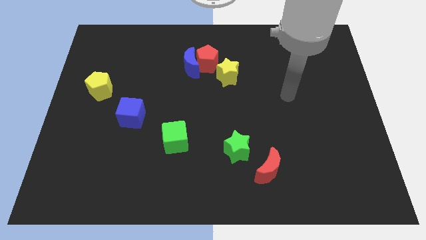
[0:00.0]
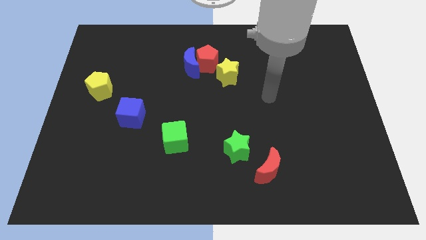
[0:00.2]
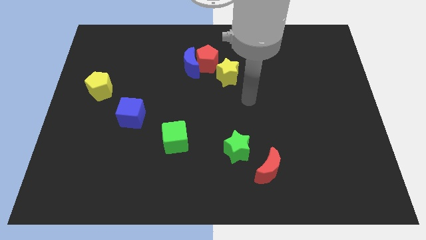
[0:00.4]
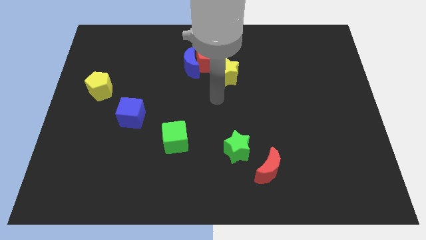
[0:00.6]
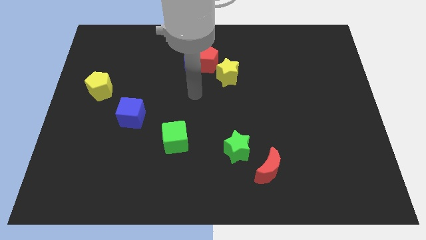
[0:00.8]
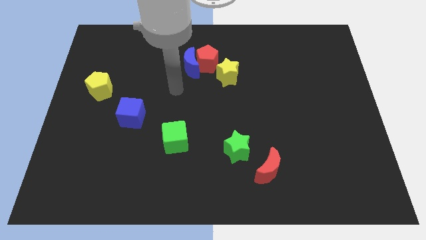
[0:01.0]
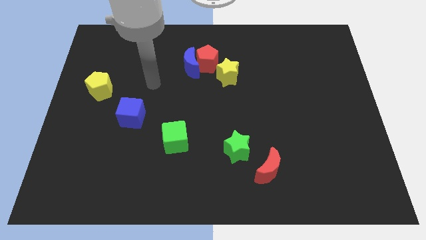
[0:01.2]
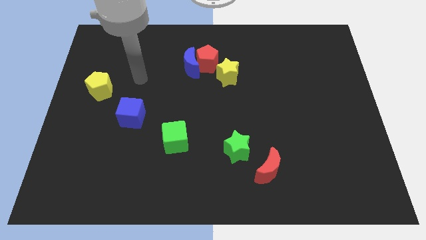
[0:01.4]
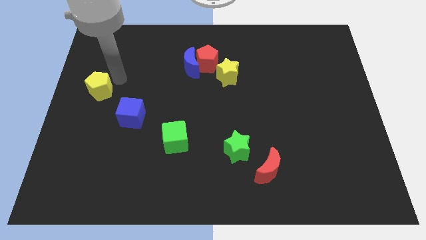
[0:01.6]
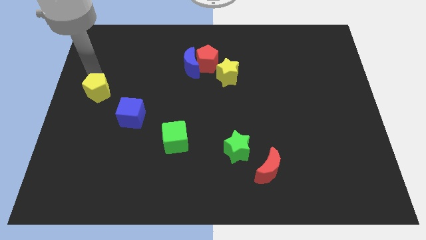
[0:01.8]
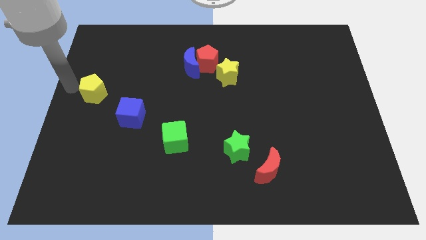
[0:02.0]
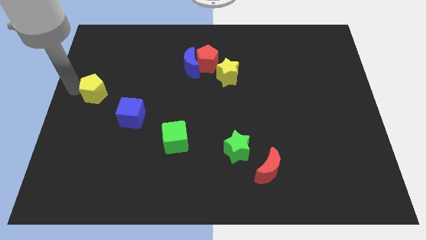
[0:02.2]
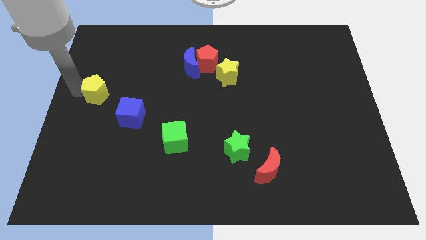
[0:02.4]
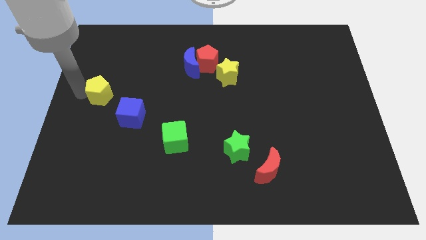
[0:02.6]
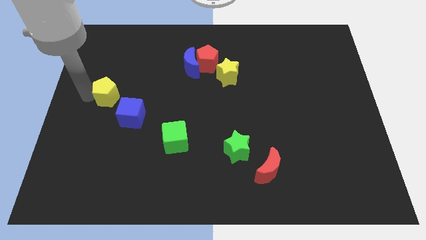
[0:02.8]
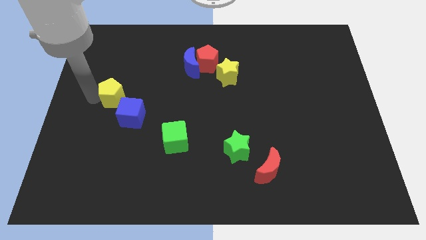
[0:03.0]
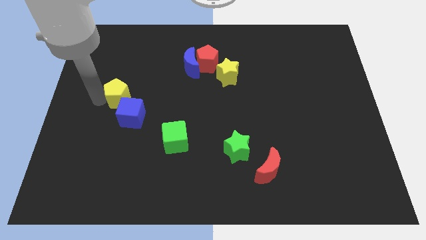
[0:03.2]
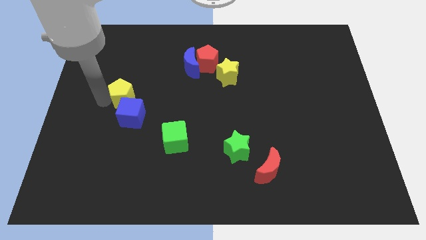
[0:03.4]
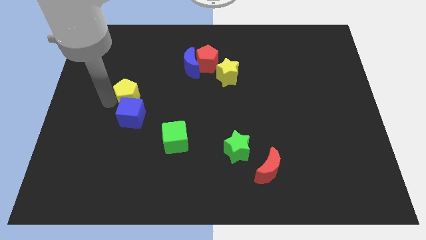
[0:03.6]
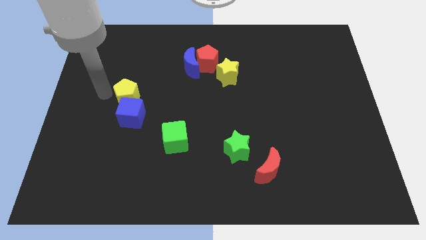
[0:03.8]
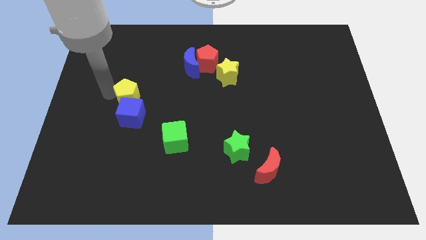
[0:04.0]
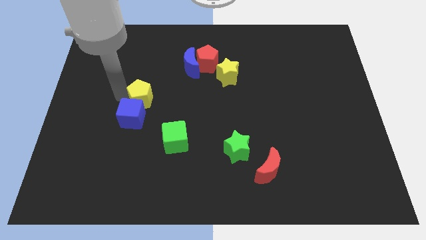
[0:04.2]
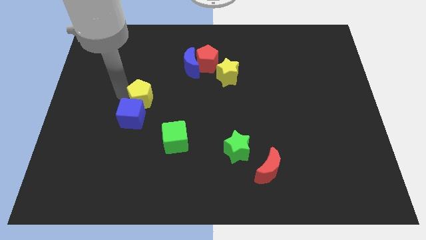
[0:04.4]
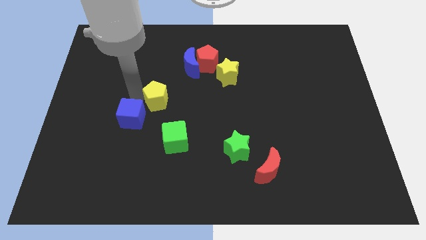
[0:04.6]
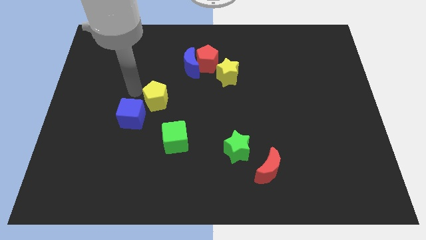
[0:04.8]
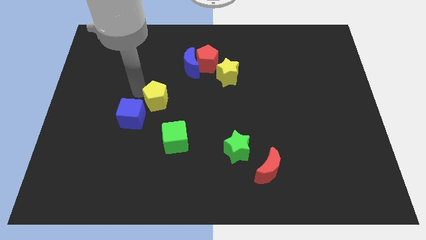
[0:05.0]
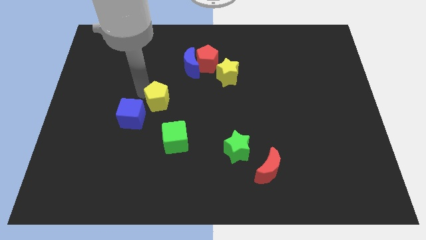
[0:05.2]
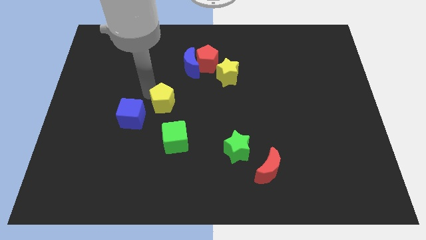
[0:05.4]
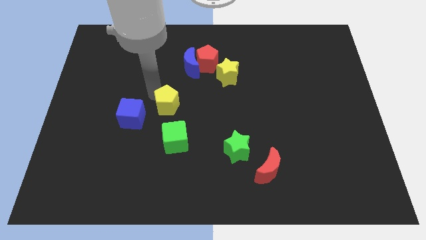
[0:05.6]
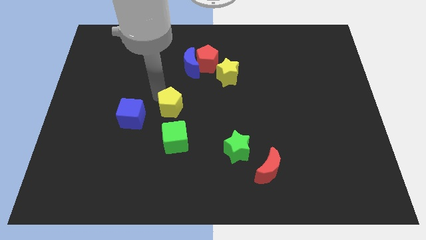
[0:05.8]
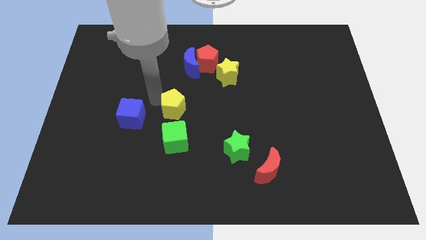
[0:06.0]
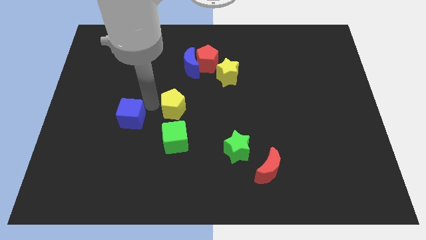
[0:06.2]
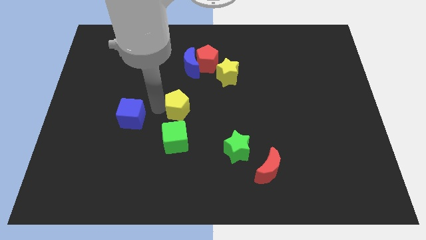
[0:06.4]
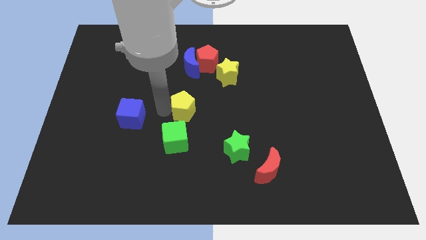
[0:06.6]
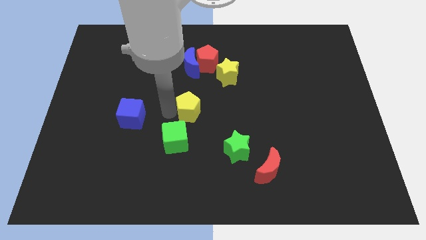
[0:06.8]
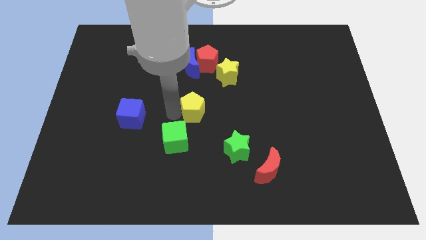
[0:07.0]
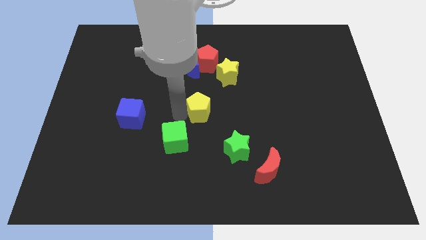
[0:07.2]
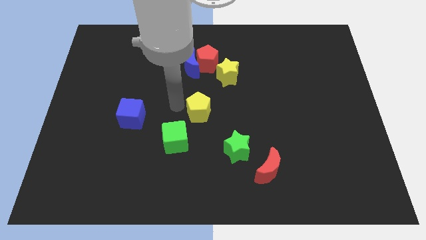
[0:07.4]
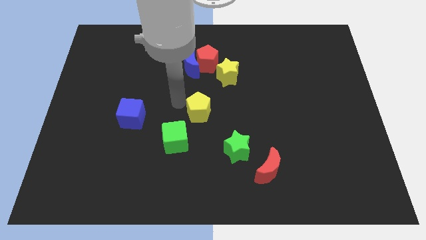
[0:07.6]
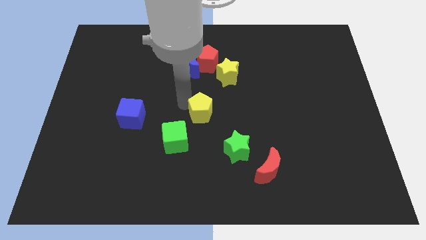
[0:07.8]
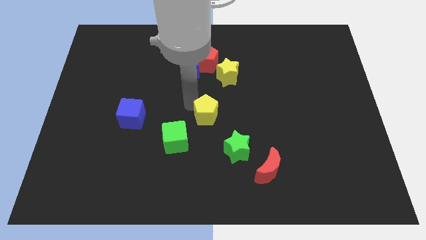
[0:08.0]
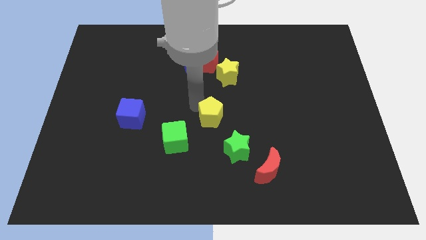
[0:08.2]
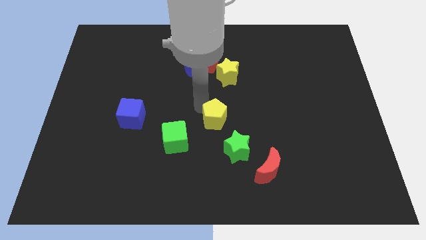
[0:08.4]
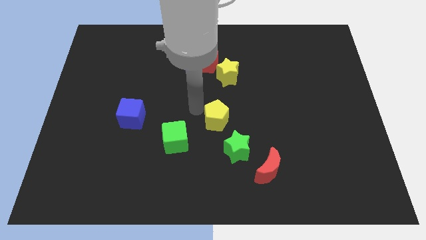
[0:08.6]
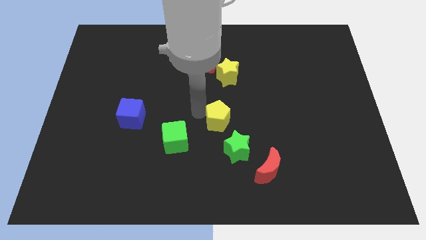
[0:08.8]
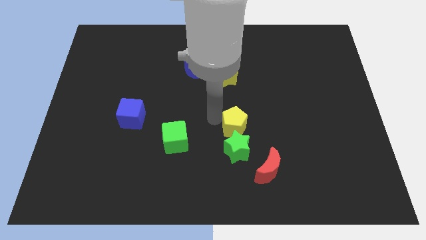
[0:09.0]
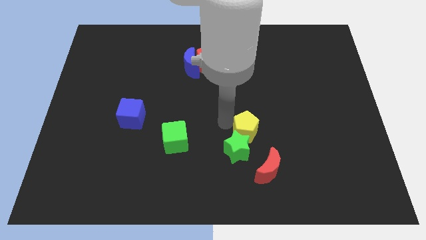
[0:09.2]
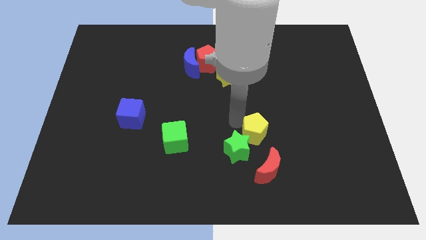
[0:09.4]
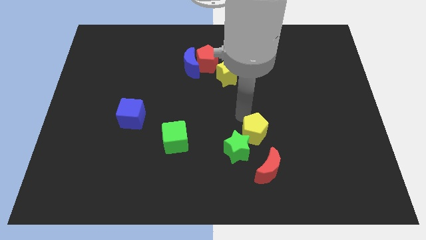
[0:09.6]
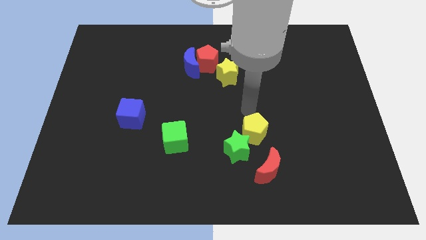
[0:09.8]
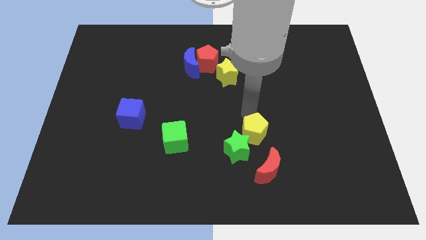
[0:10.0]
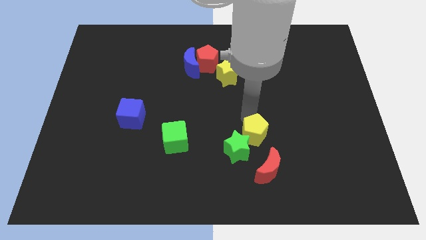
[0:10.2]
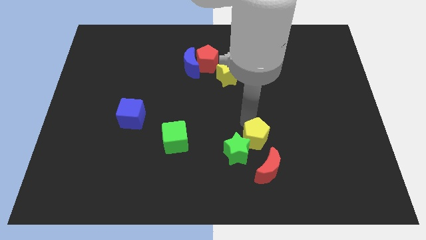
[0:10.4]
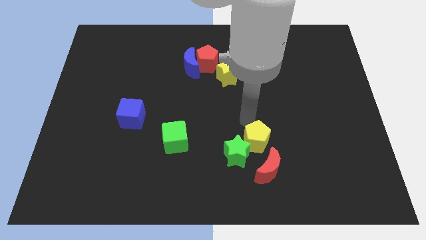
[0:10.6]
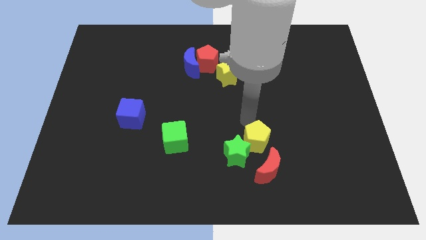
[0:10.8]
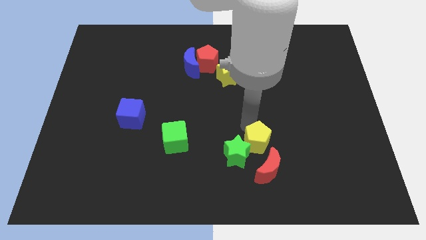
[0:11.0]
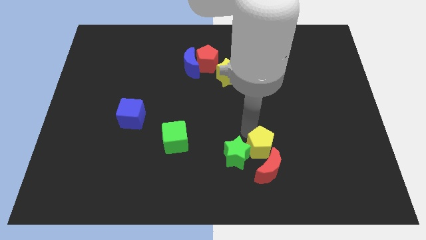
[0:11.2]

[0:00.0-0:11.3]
put the yellow pentagon to the red moon

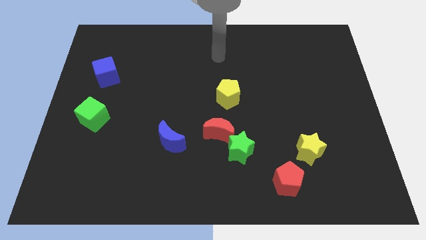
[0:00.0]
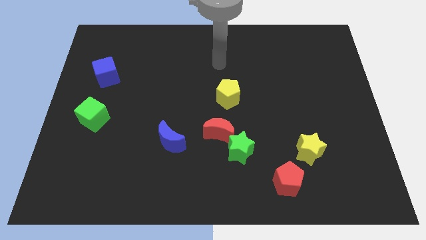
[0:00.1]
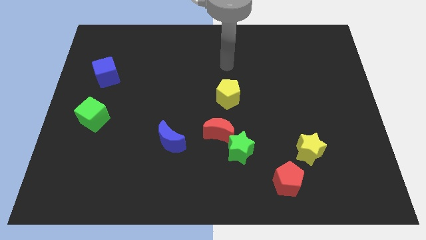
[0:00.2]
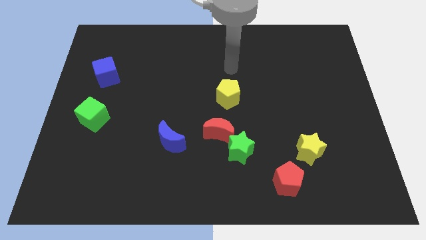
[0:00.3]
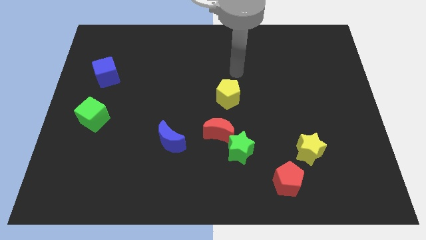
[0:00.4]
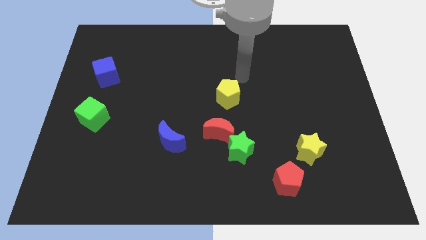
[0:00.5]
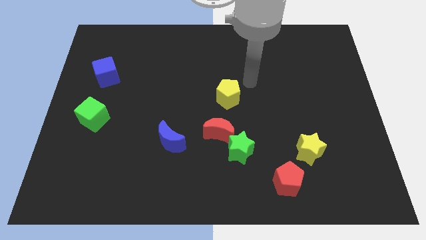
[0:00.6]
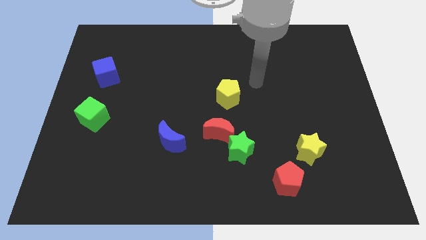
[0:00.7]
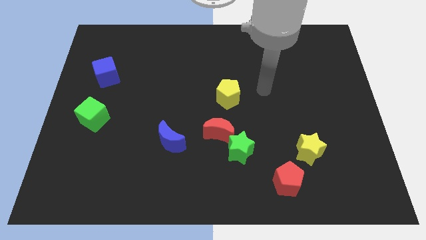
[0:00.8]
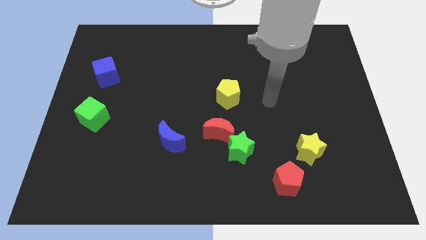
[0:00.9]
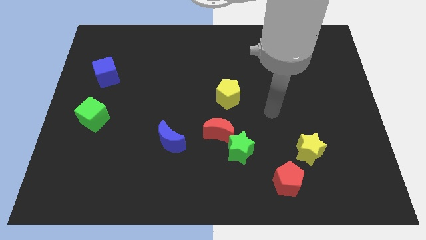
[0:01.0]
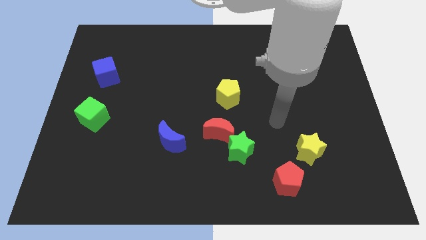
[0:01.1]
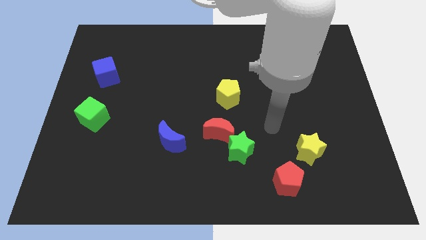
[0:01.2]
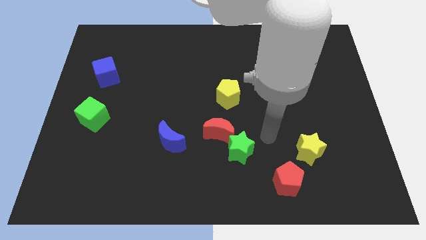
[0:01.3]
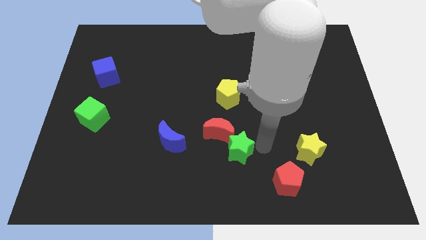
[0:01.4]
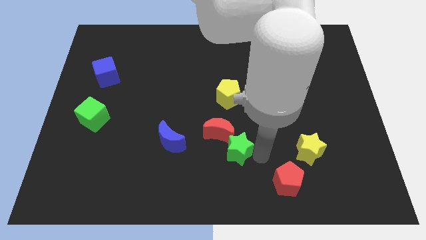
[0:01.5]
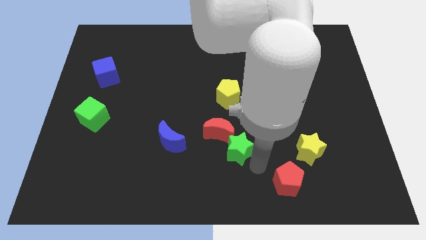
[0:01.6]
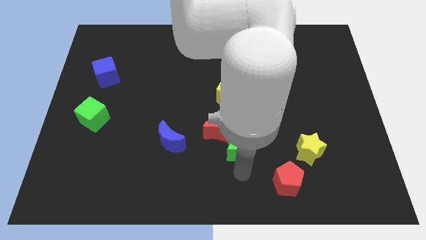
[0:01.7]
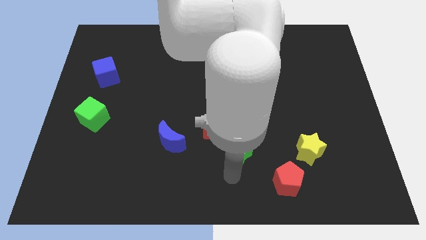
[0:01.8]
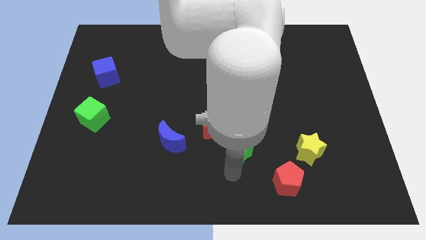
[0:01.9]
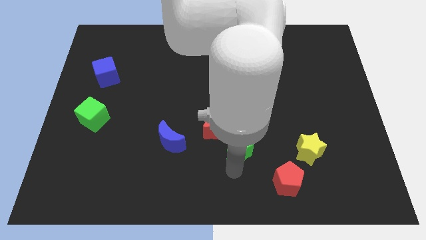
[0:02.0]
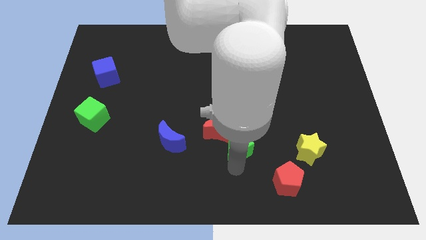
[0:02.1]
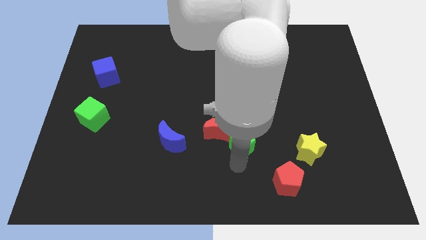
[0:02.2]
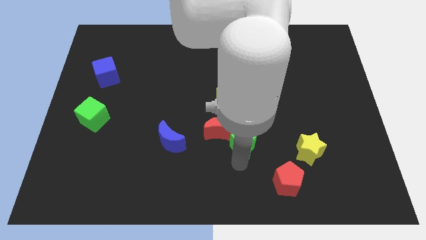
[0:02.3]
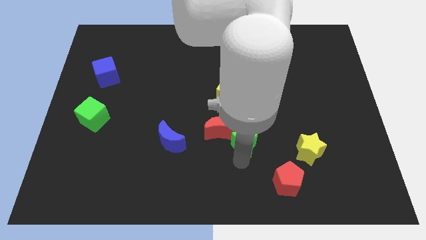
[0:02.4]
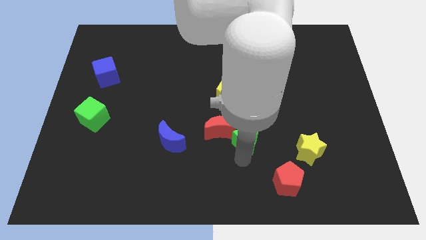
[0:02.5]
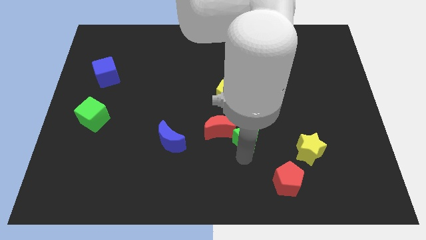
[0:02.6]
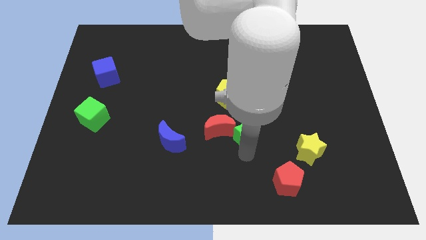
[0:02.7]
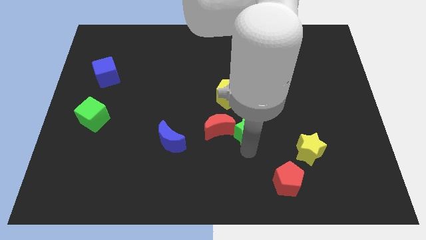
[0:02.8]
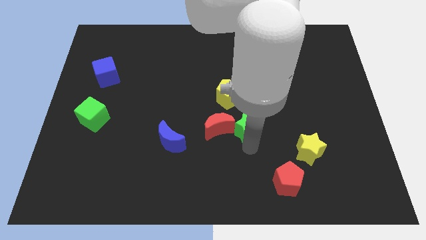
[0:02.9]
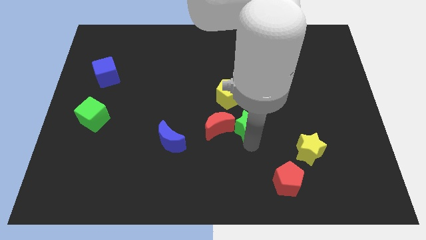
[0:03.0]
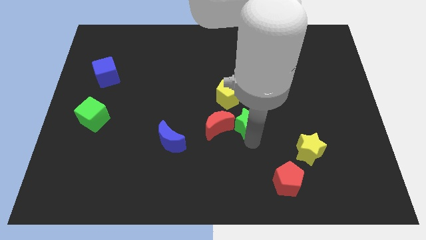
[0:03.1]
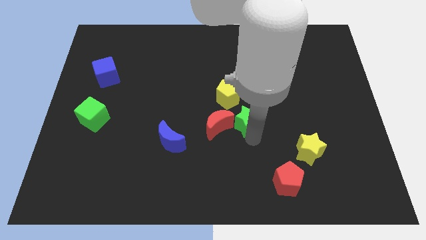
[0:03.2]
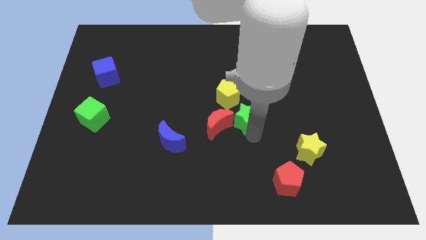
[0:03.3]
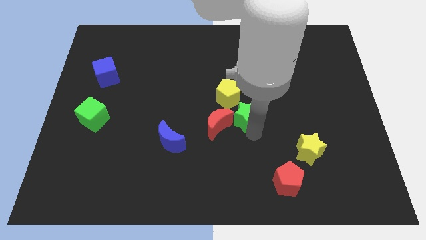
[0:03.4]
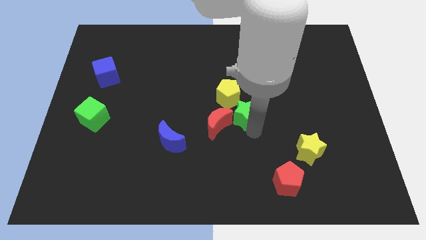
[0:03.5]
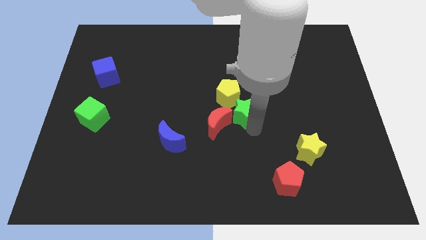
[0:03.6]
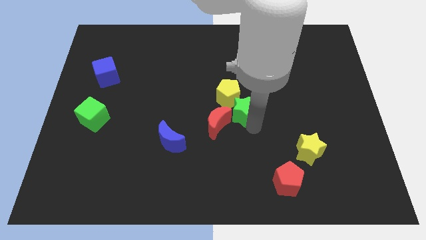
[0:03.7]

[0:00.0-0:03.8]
push the green star next to the yellow pentagon
